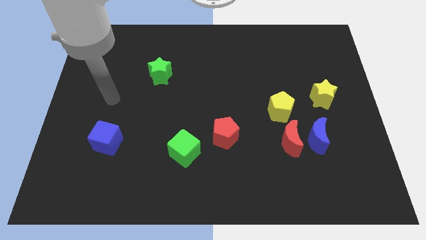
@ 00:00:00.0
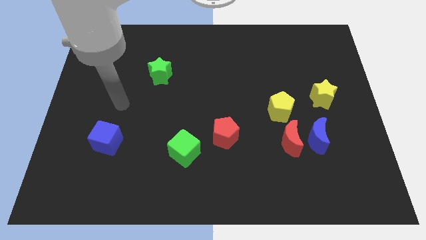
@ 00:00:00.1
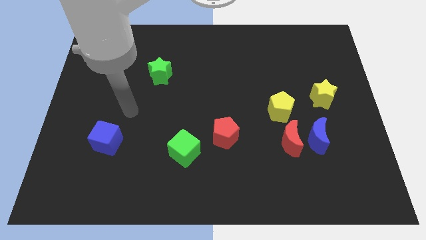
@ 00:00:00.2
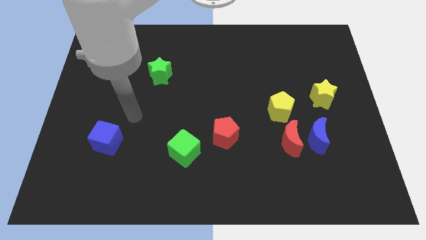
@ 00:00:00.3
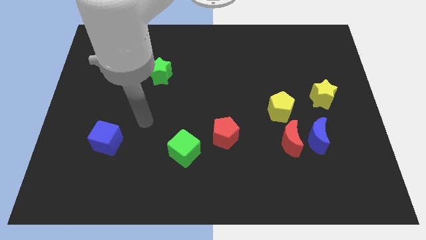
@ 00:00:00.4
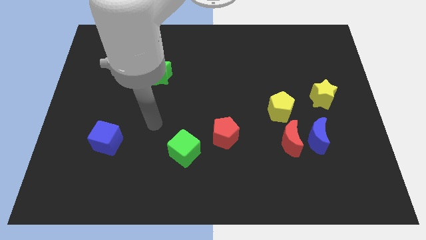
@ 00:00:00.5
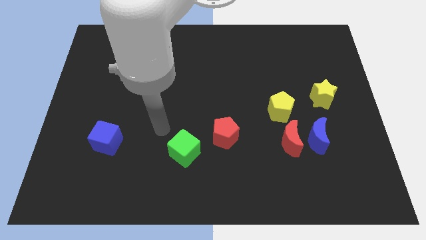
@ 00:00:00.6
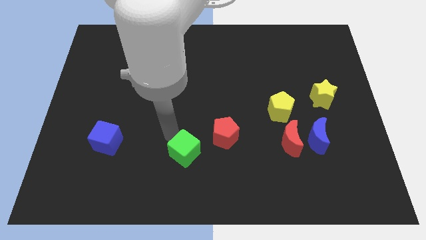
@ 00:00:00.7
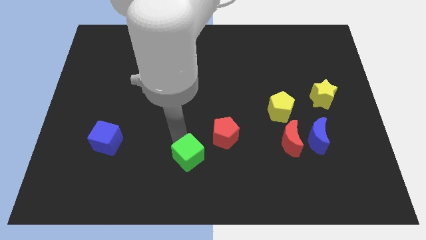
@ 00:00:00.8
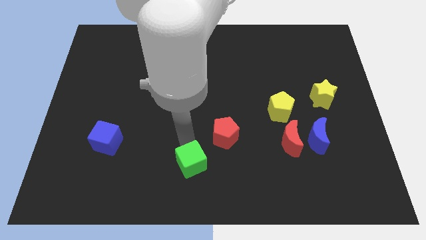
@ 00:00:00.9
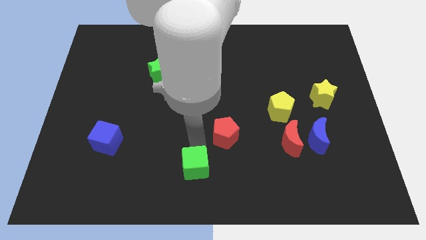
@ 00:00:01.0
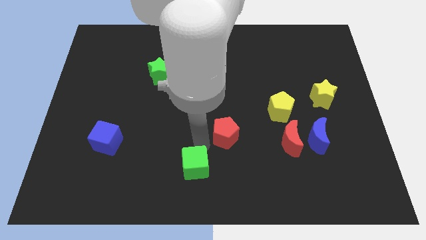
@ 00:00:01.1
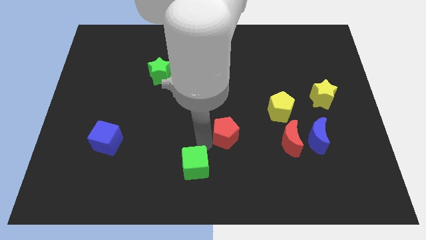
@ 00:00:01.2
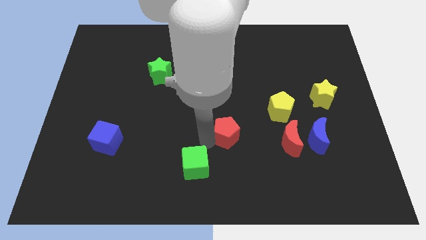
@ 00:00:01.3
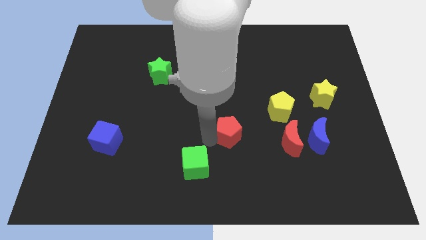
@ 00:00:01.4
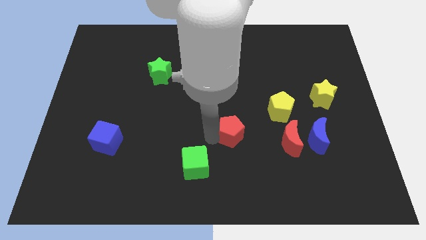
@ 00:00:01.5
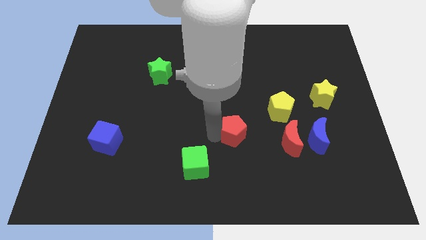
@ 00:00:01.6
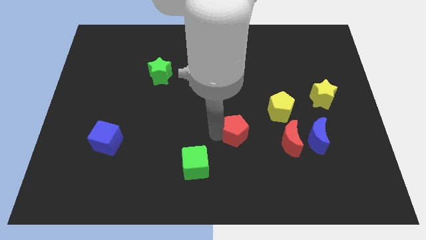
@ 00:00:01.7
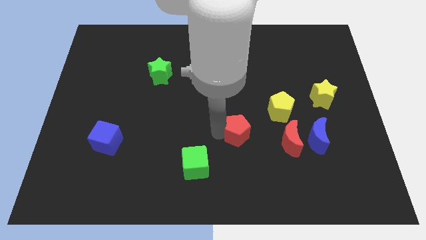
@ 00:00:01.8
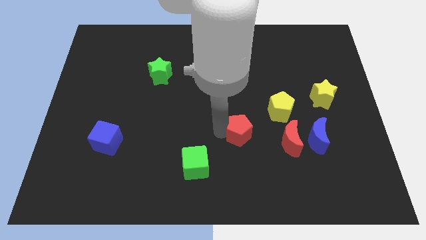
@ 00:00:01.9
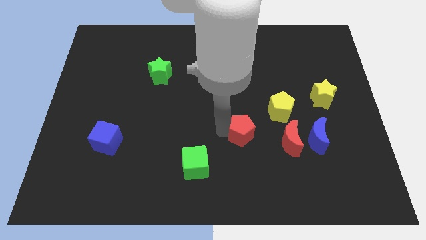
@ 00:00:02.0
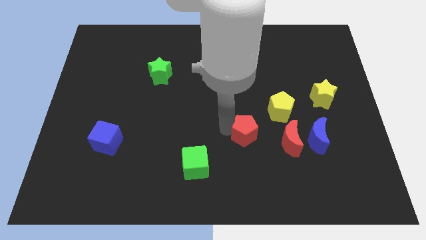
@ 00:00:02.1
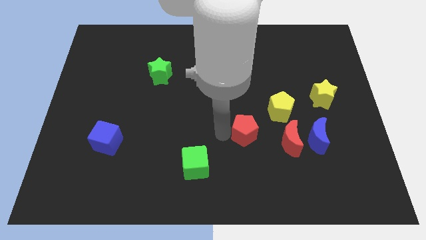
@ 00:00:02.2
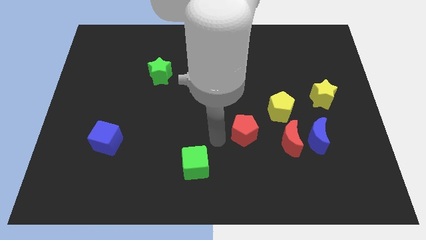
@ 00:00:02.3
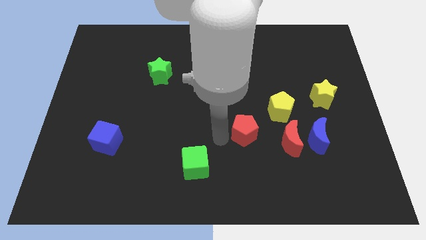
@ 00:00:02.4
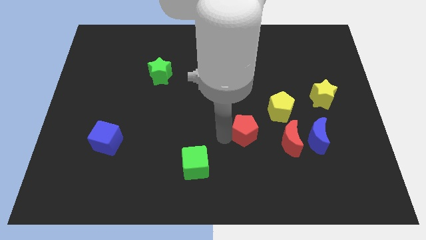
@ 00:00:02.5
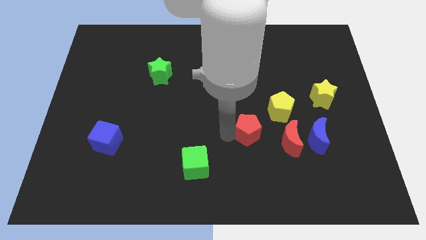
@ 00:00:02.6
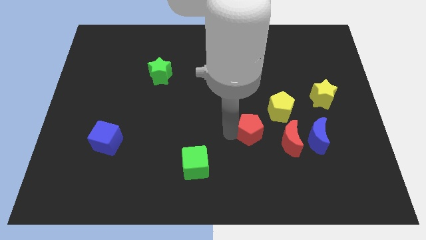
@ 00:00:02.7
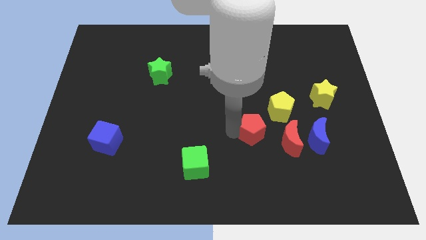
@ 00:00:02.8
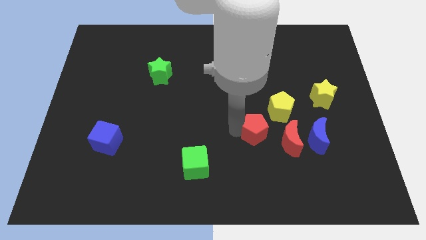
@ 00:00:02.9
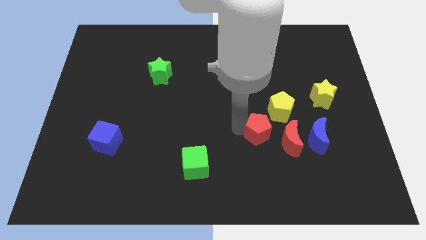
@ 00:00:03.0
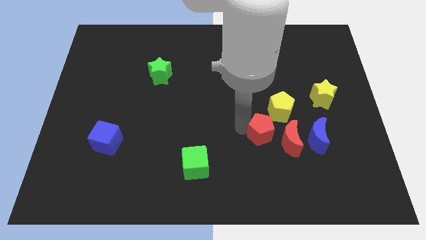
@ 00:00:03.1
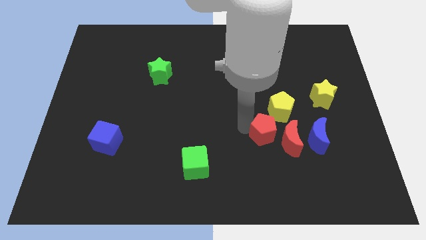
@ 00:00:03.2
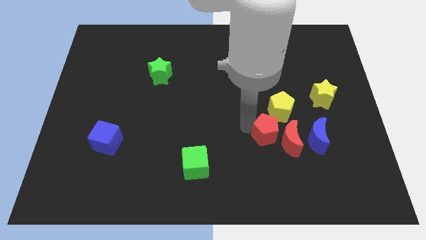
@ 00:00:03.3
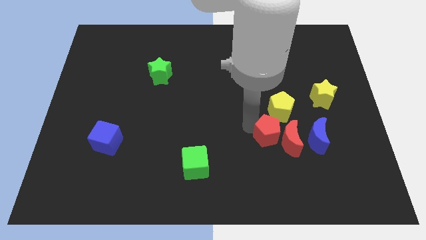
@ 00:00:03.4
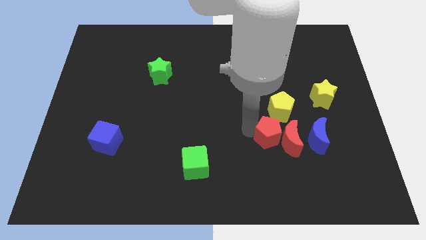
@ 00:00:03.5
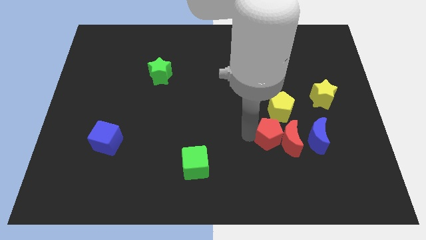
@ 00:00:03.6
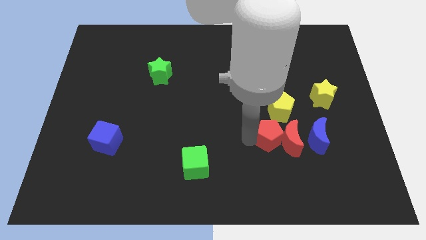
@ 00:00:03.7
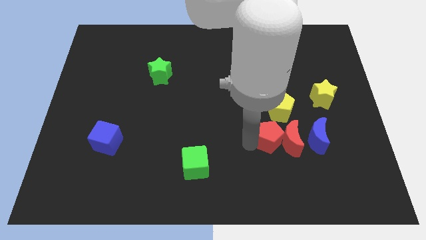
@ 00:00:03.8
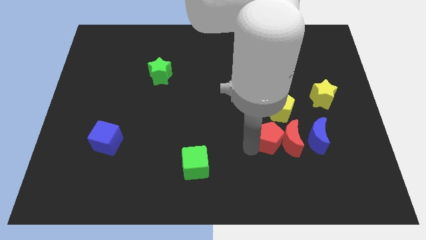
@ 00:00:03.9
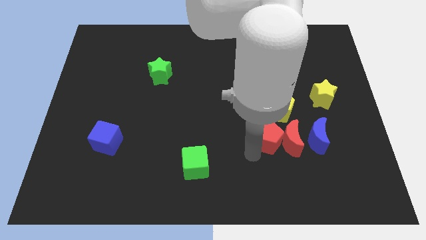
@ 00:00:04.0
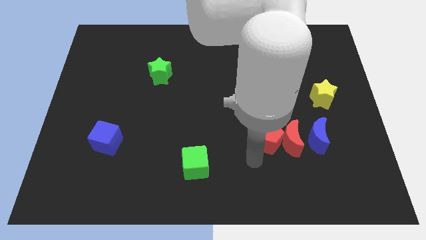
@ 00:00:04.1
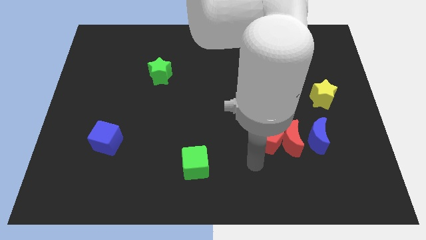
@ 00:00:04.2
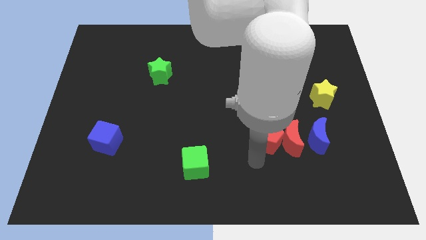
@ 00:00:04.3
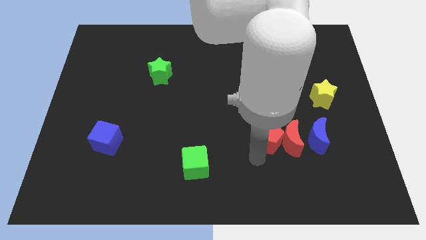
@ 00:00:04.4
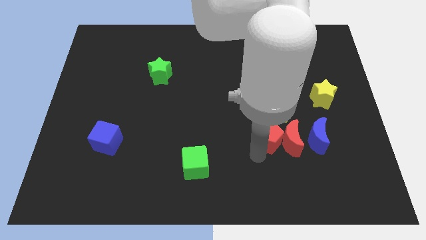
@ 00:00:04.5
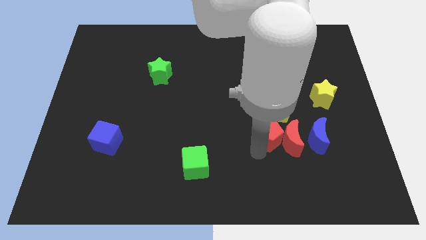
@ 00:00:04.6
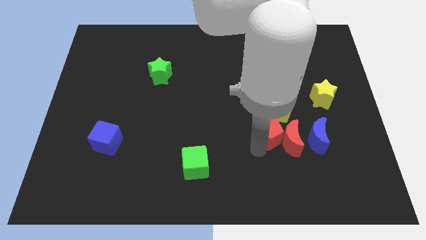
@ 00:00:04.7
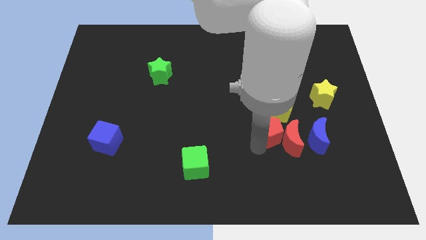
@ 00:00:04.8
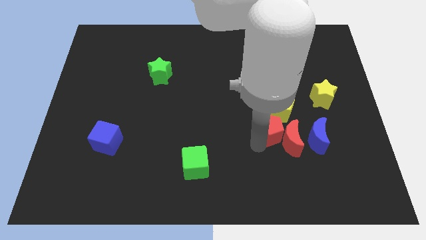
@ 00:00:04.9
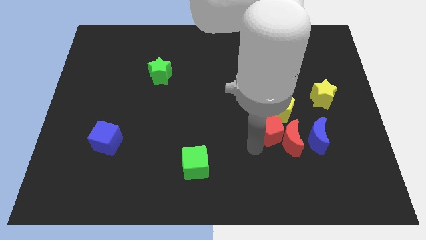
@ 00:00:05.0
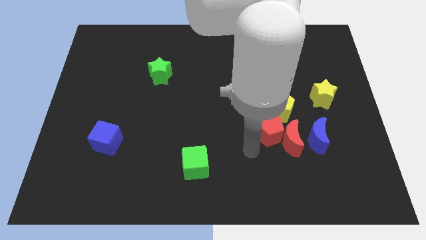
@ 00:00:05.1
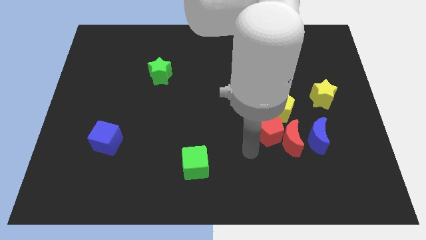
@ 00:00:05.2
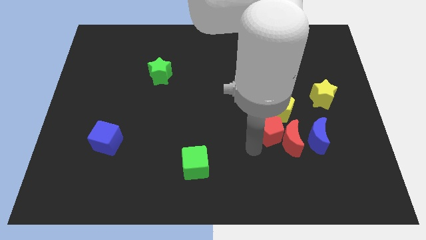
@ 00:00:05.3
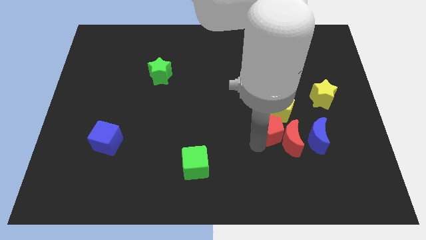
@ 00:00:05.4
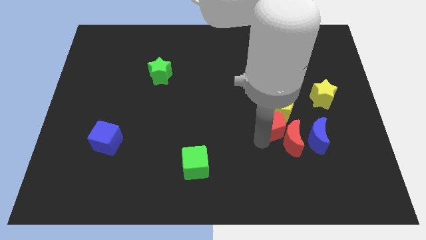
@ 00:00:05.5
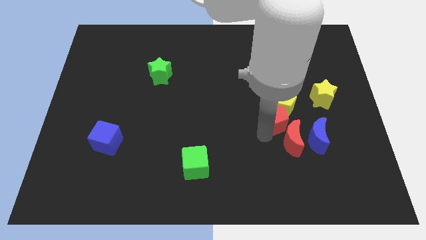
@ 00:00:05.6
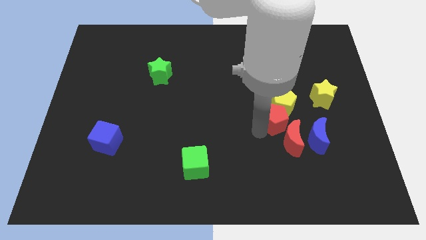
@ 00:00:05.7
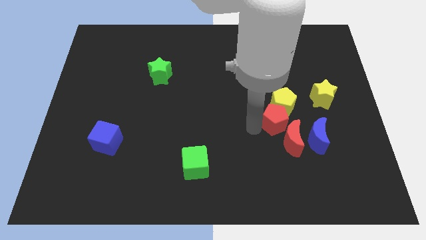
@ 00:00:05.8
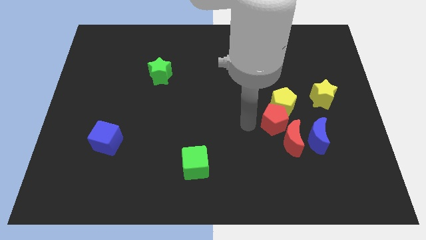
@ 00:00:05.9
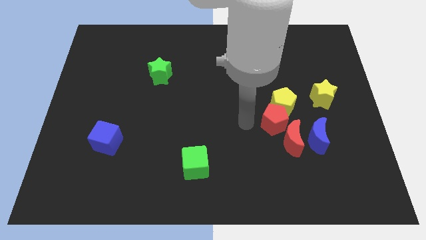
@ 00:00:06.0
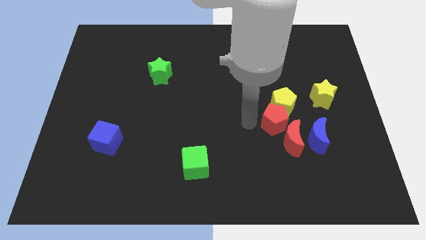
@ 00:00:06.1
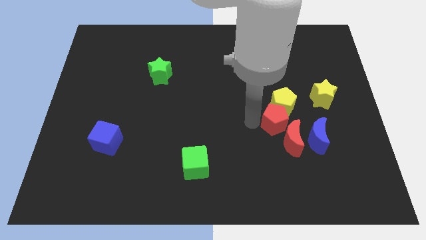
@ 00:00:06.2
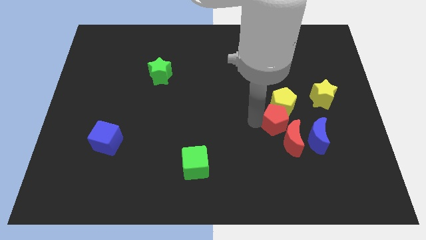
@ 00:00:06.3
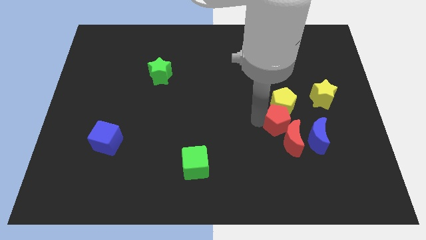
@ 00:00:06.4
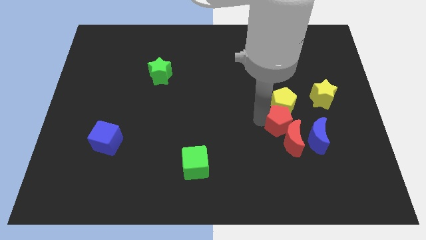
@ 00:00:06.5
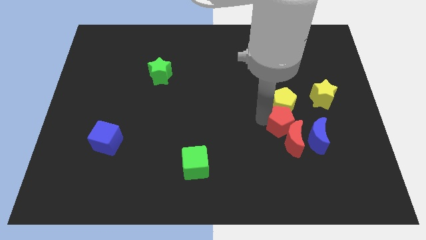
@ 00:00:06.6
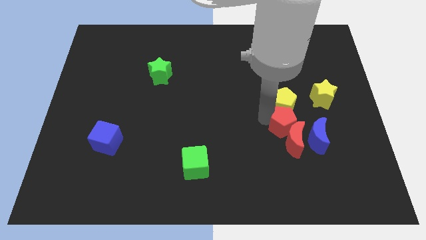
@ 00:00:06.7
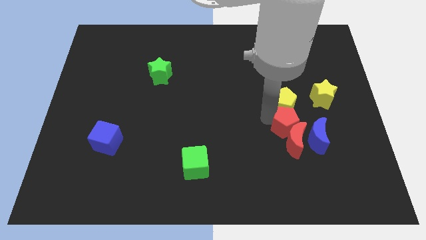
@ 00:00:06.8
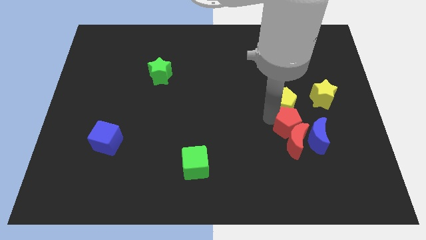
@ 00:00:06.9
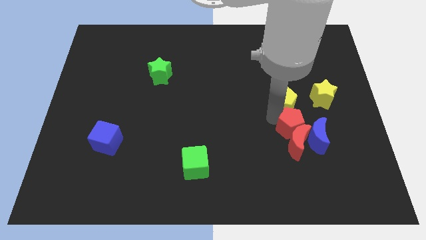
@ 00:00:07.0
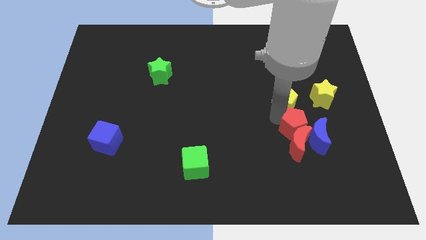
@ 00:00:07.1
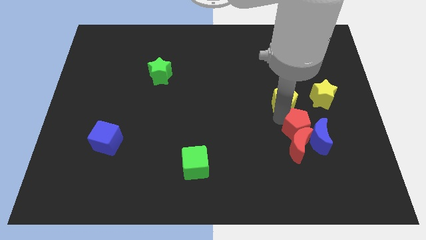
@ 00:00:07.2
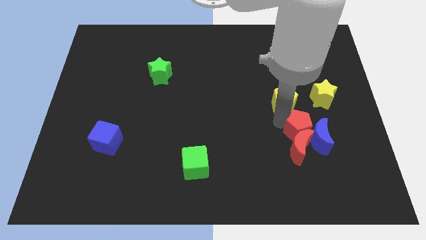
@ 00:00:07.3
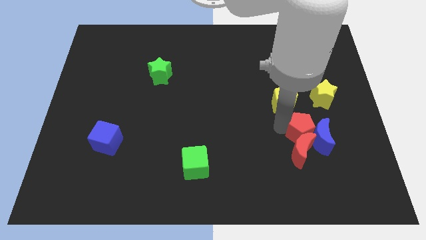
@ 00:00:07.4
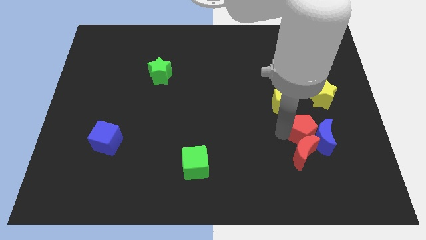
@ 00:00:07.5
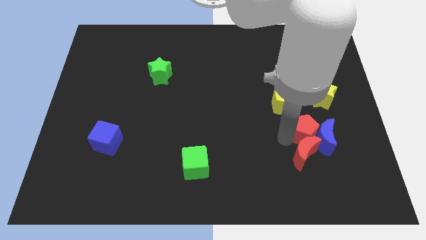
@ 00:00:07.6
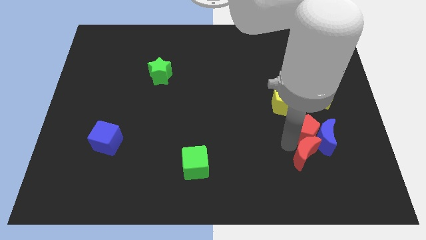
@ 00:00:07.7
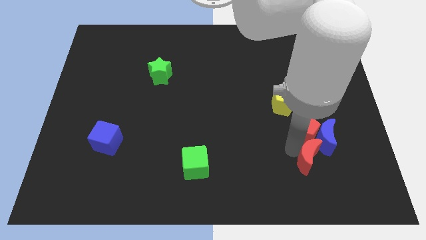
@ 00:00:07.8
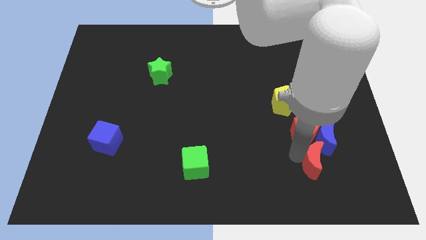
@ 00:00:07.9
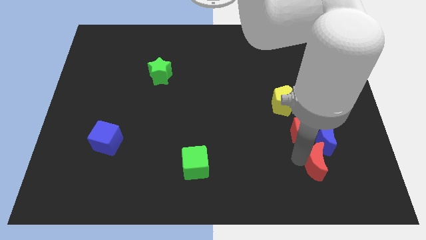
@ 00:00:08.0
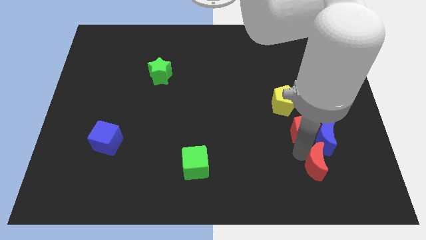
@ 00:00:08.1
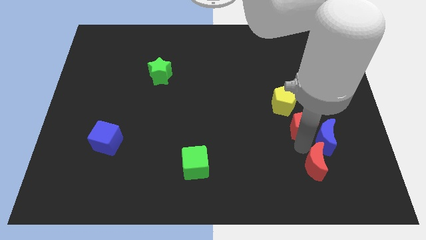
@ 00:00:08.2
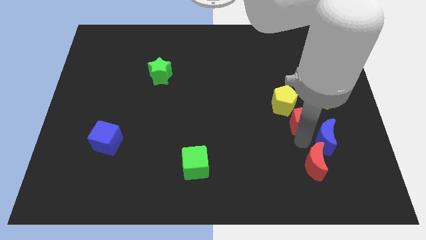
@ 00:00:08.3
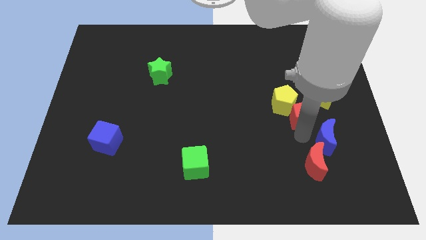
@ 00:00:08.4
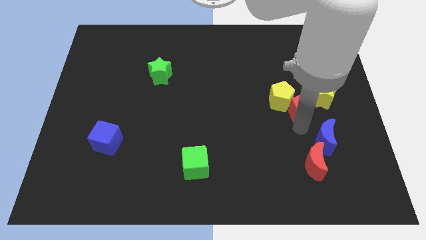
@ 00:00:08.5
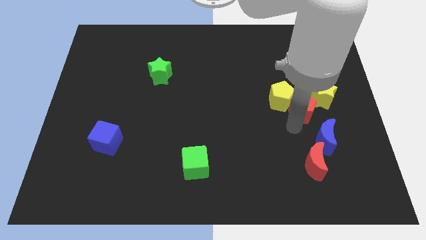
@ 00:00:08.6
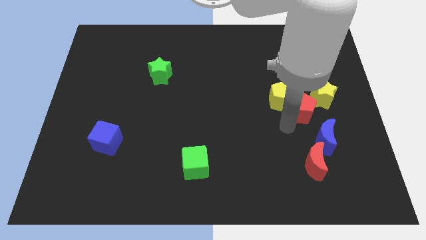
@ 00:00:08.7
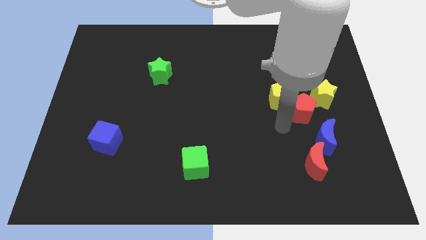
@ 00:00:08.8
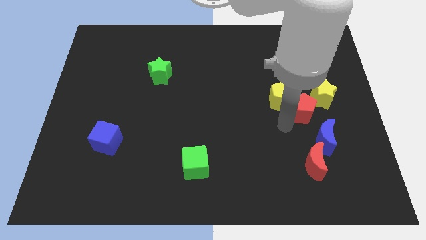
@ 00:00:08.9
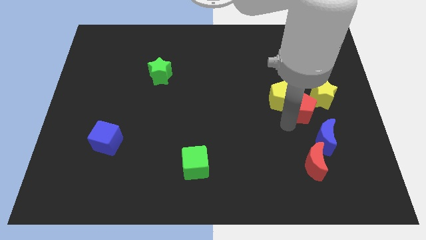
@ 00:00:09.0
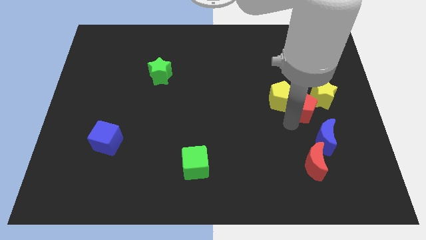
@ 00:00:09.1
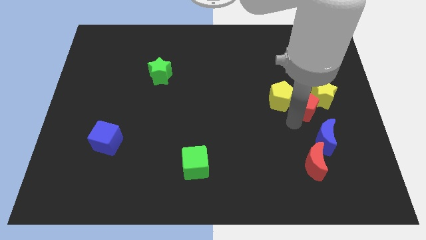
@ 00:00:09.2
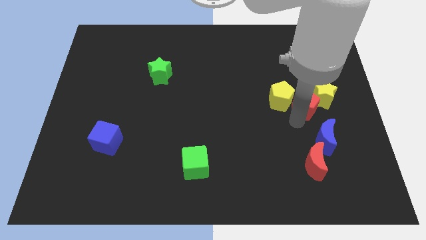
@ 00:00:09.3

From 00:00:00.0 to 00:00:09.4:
put the red pentagon to the yellow star
